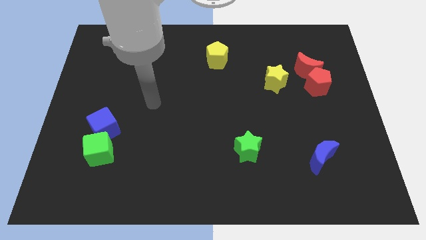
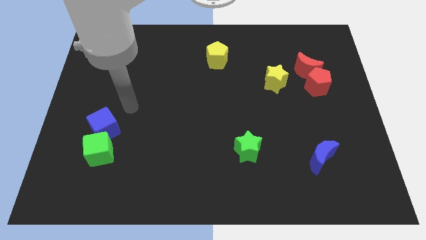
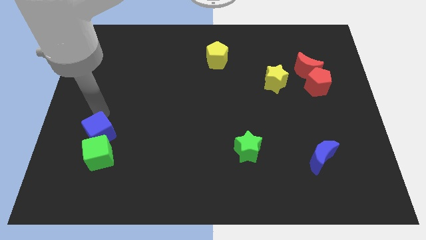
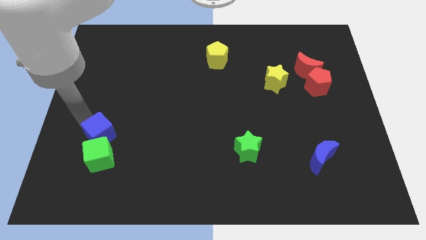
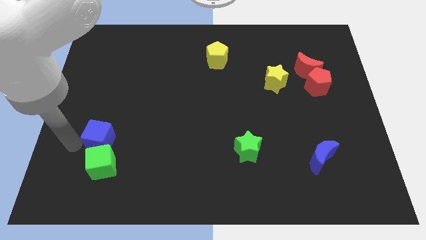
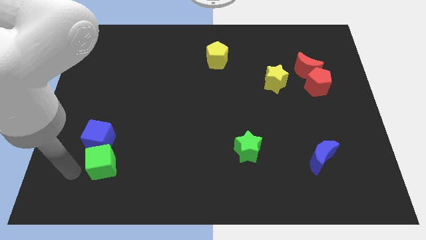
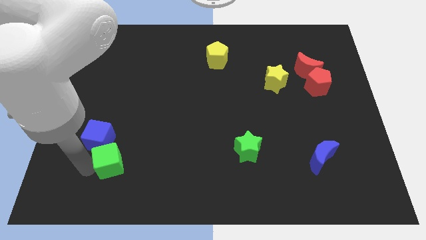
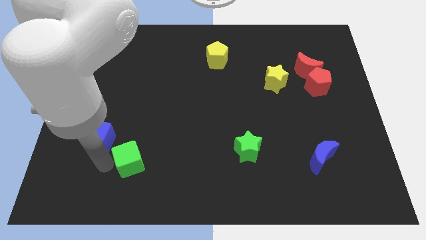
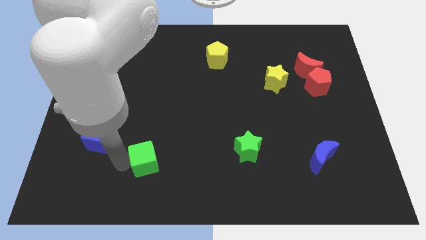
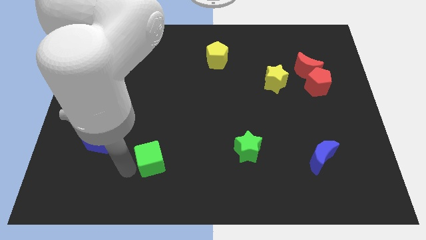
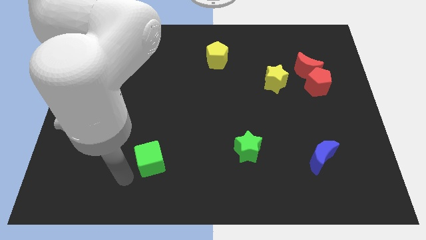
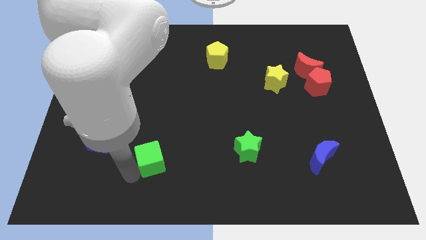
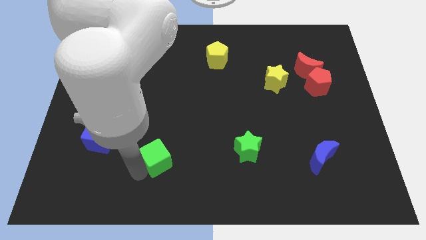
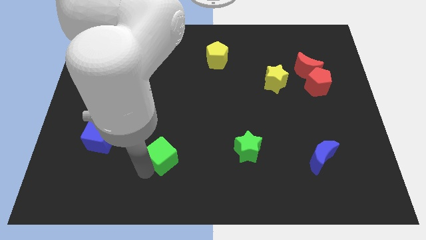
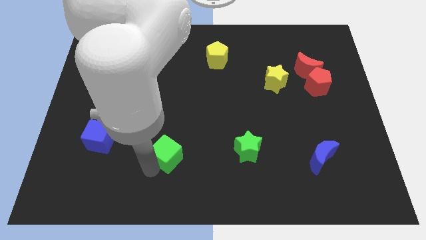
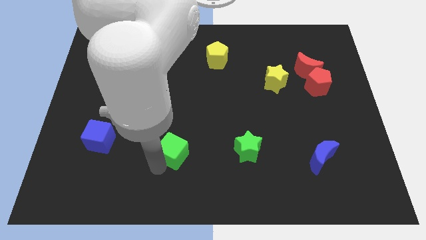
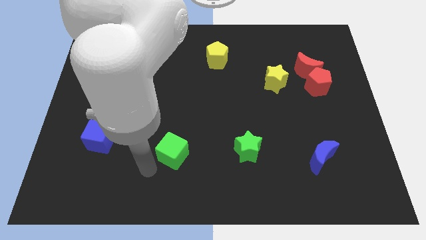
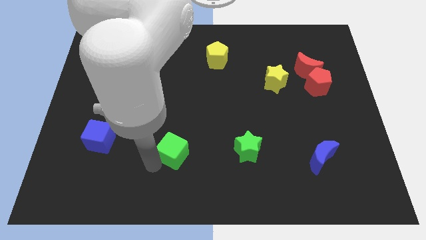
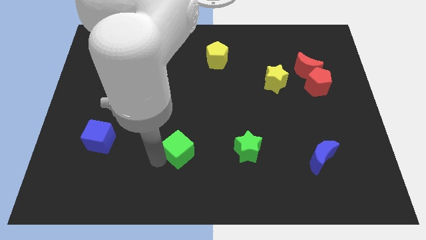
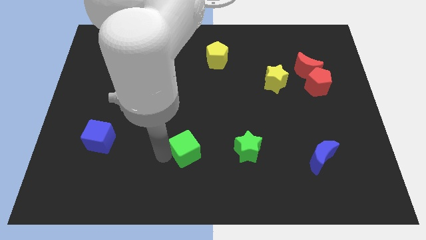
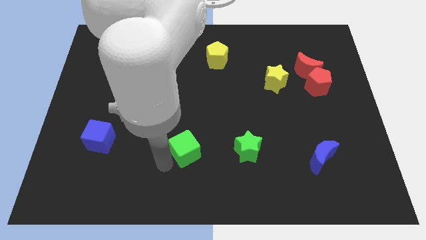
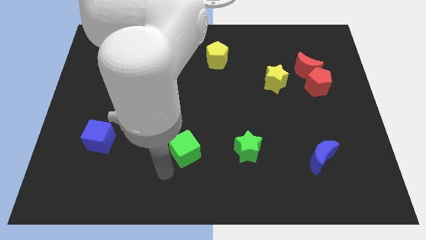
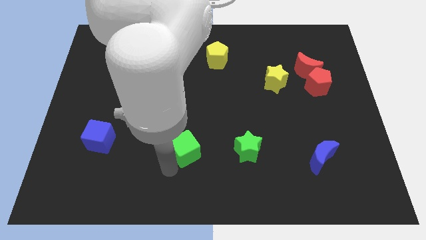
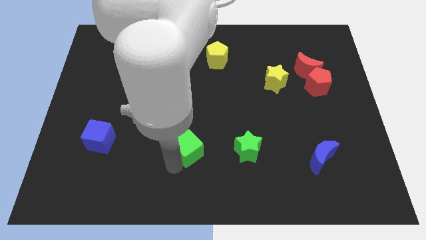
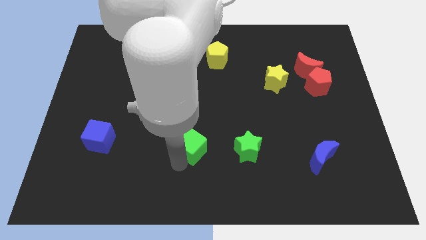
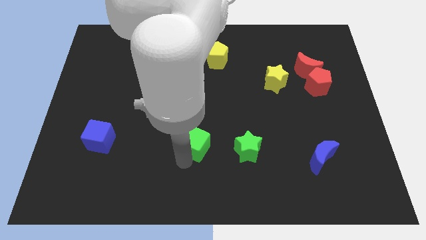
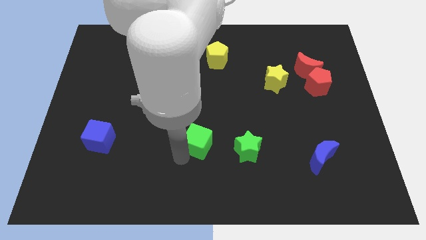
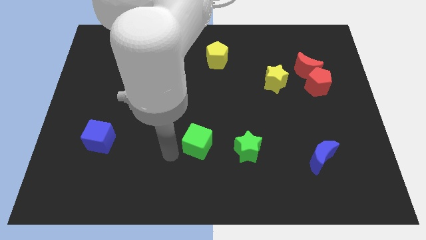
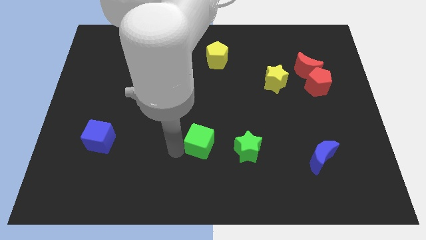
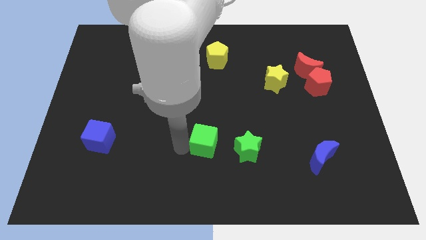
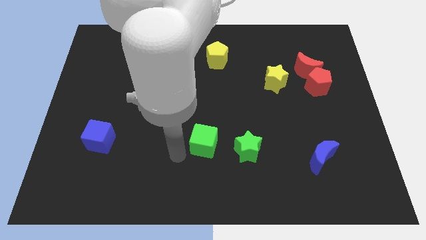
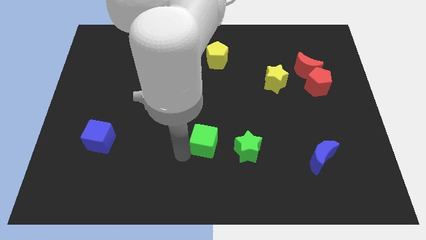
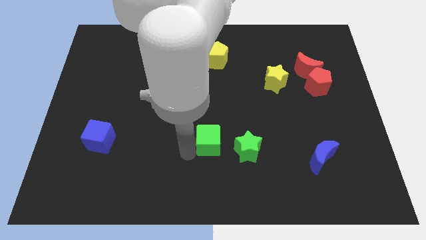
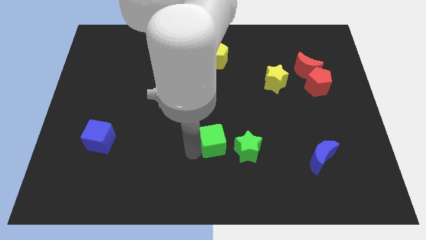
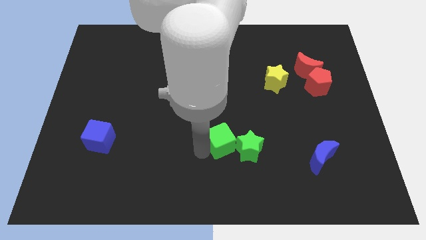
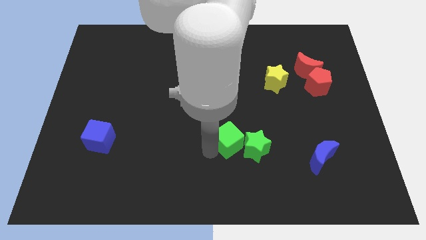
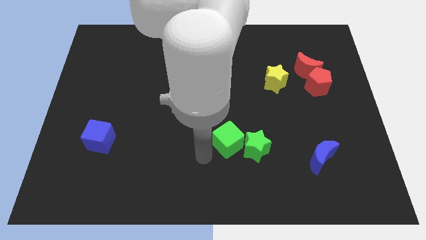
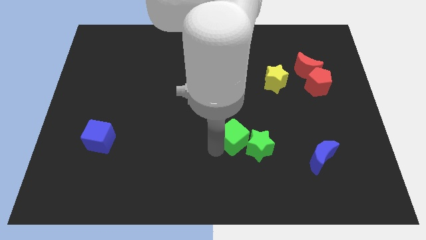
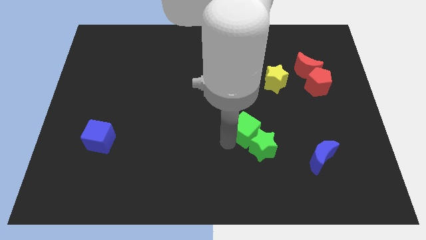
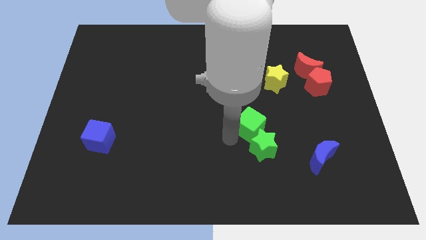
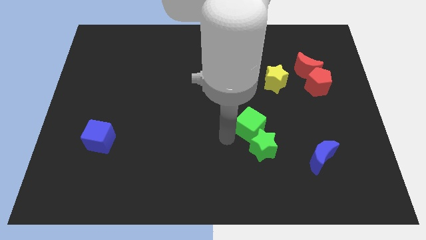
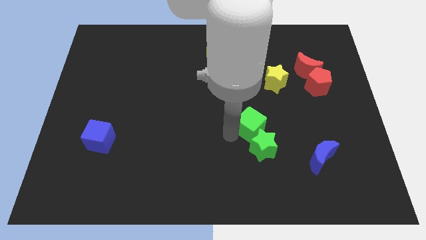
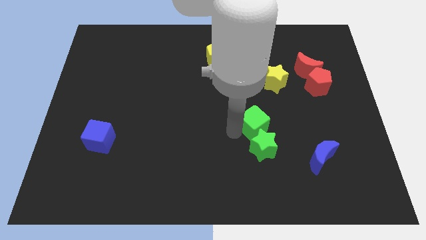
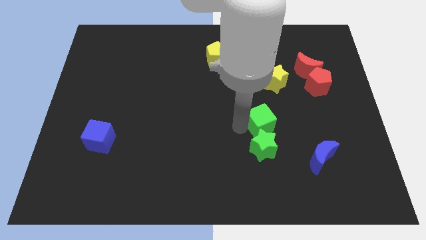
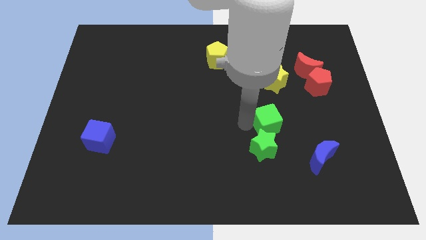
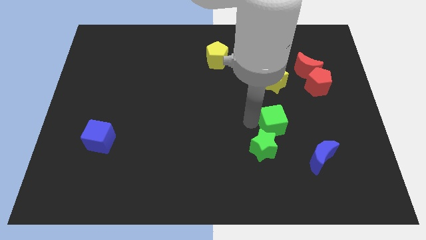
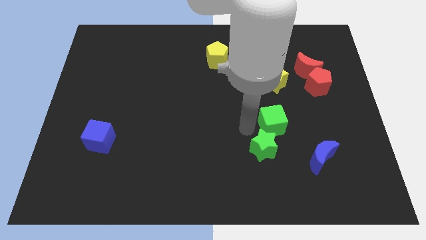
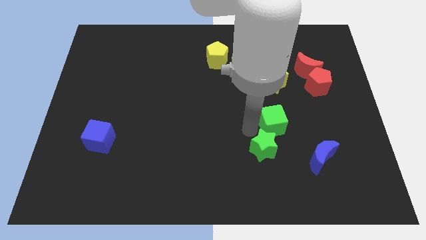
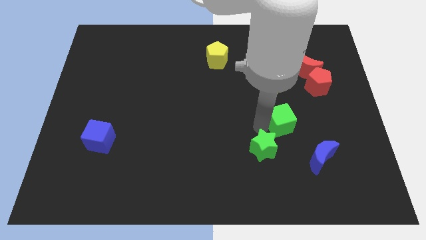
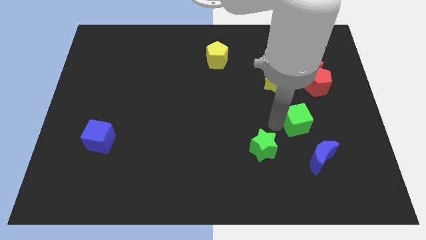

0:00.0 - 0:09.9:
push the green cube to the top of the blue moon

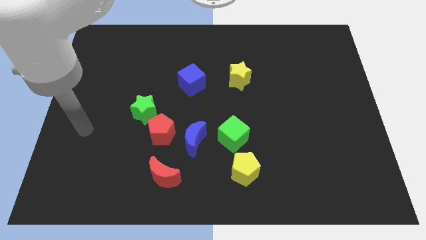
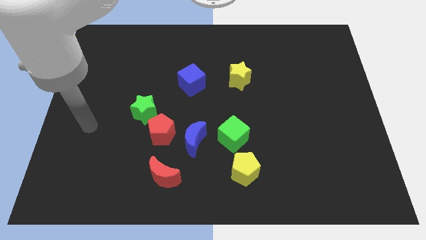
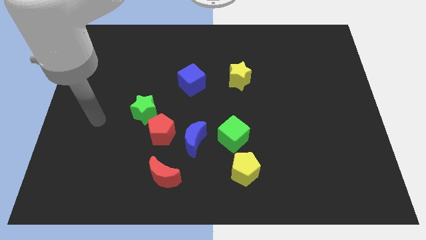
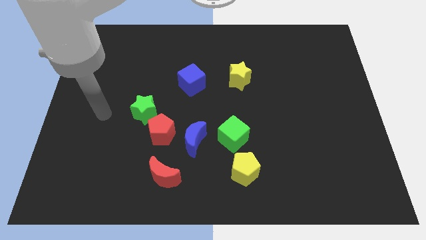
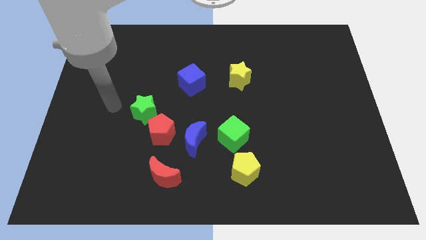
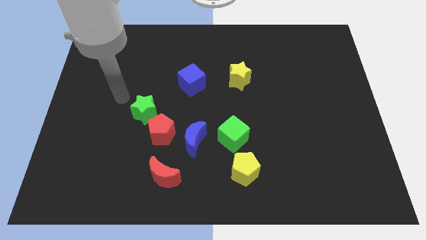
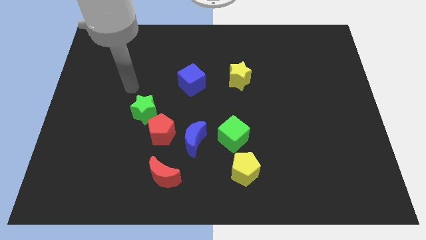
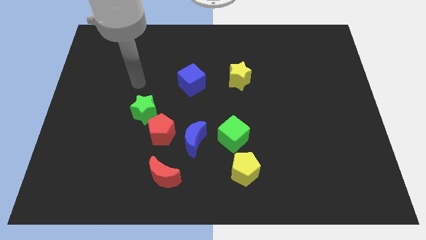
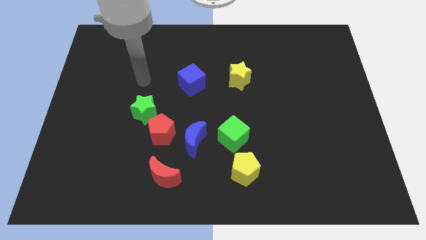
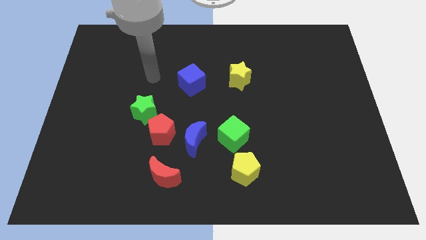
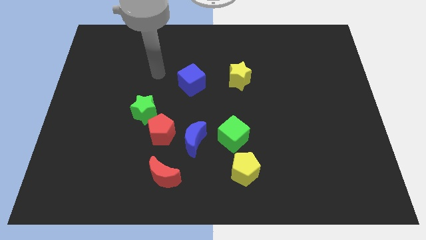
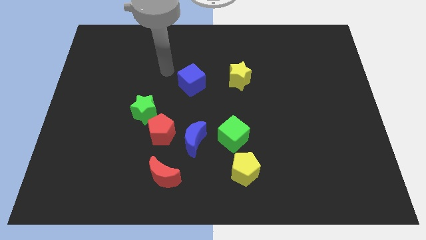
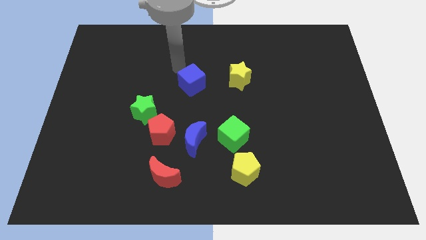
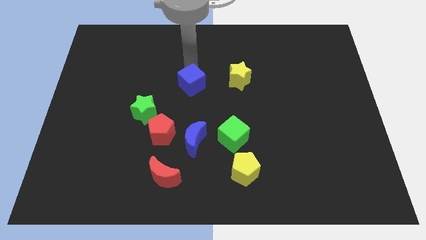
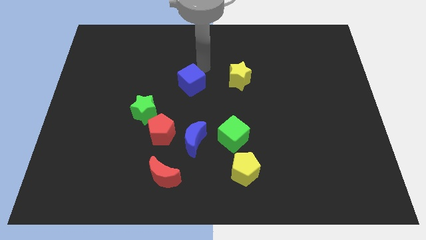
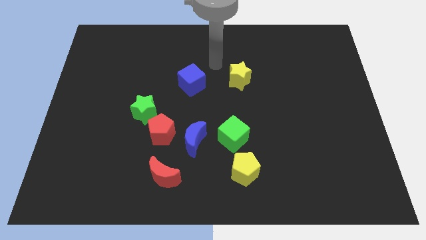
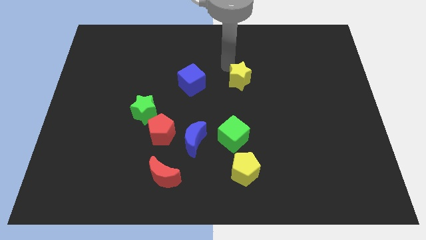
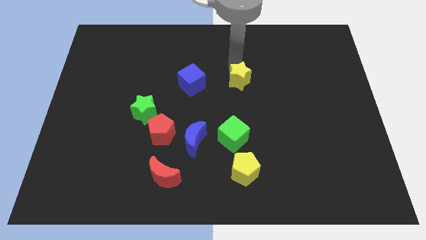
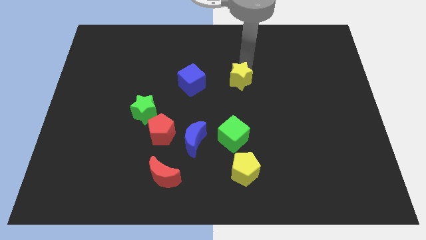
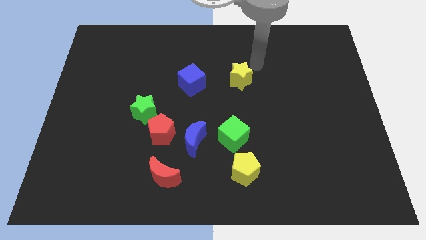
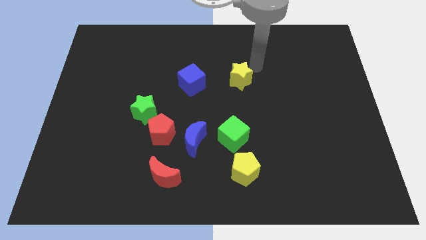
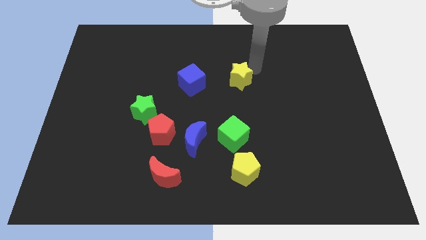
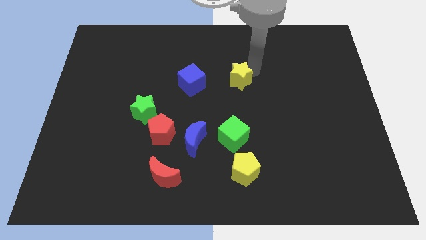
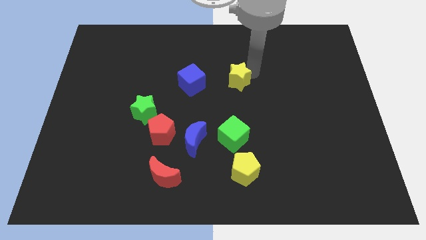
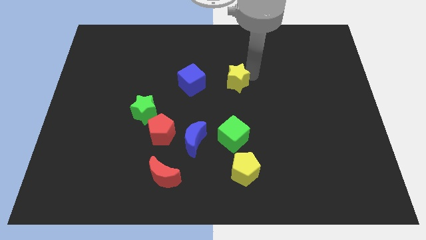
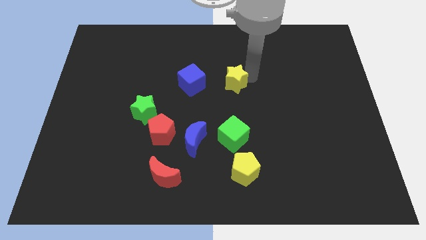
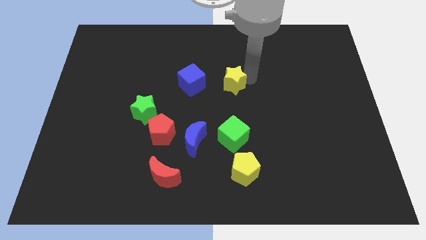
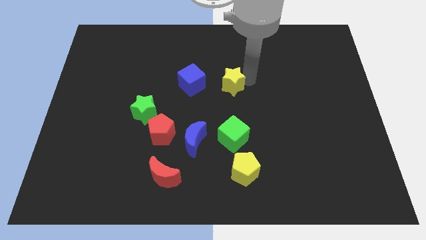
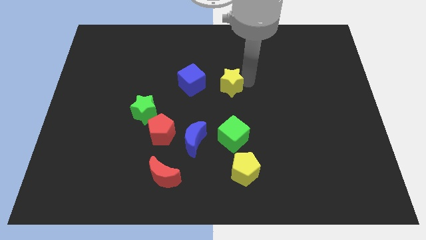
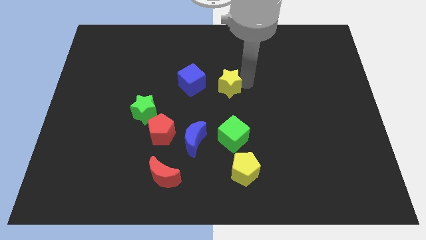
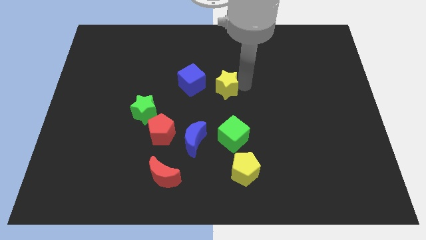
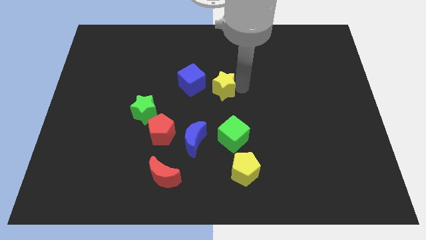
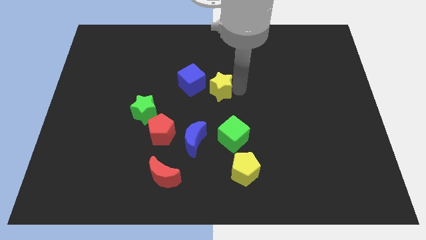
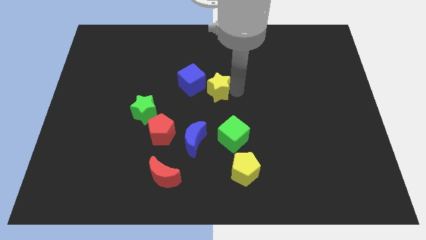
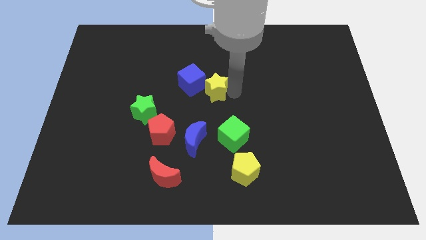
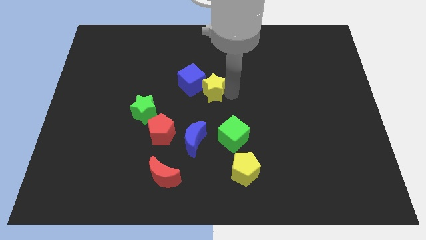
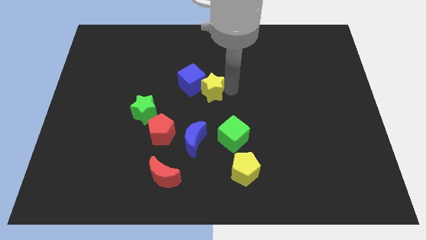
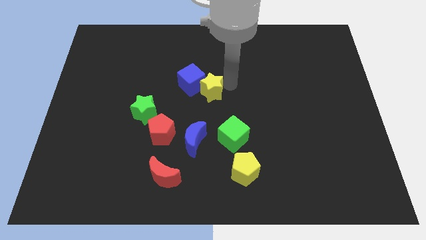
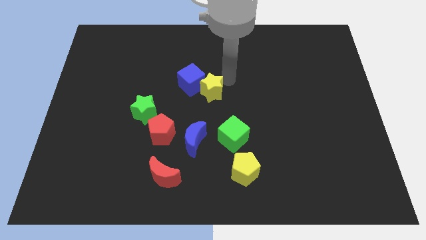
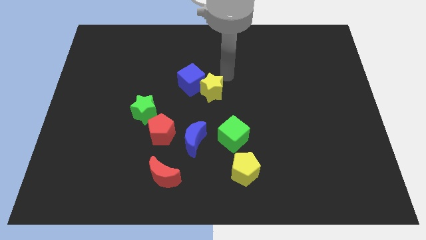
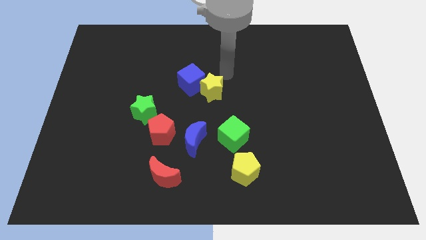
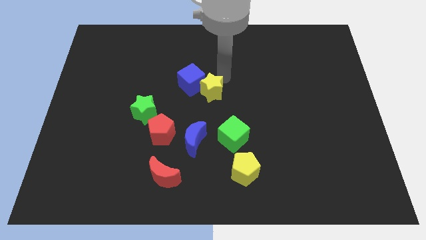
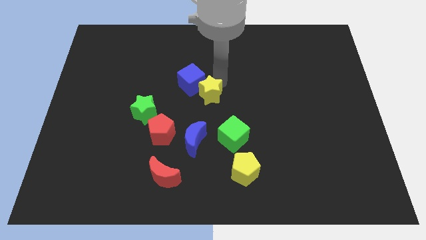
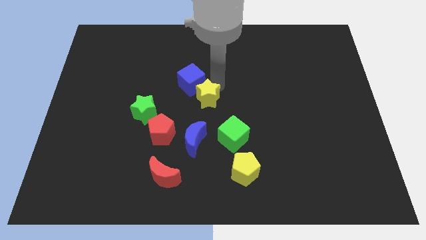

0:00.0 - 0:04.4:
put the yellow star below the blue cube
